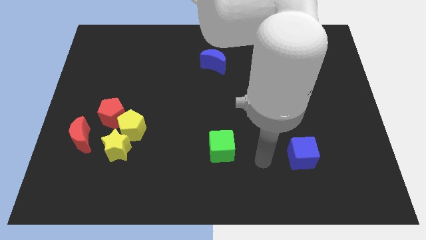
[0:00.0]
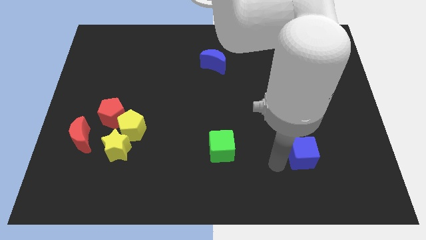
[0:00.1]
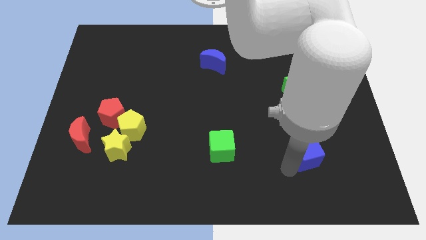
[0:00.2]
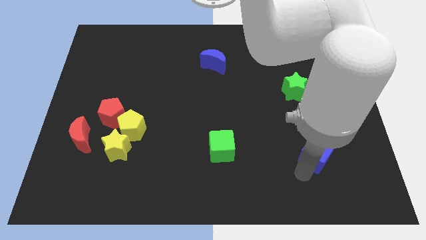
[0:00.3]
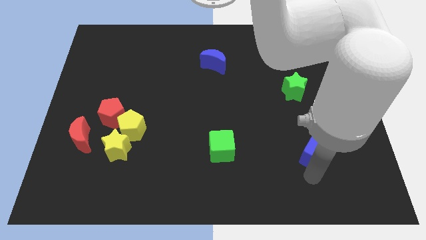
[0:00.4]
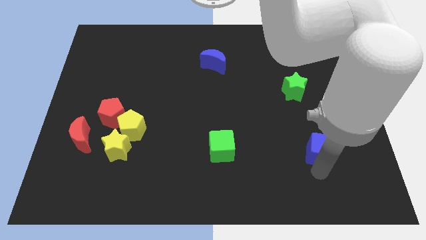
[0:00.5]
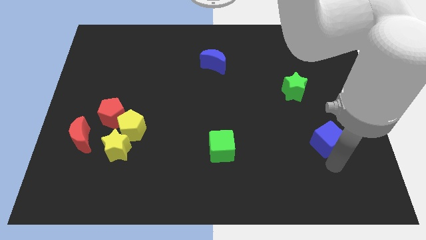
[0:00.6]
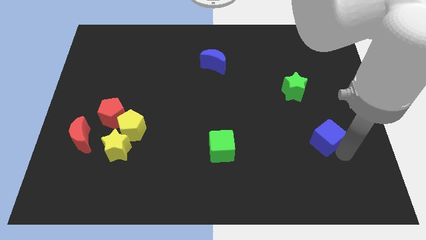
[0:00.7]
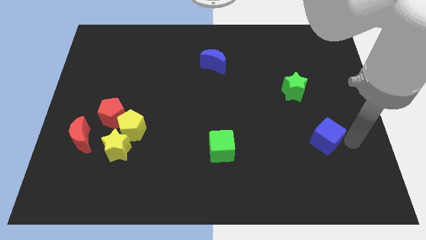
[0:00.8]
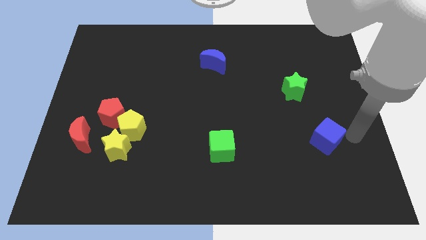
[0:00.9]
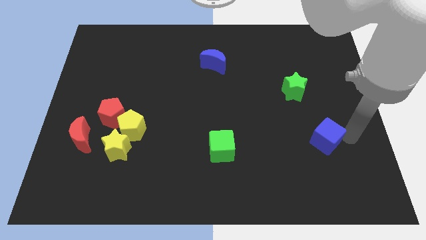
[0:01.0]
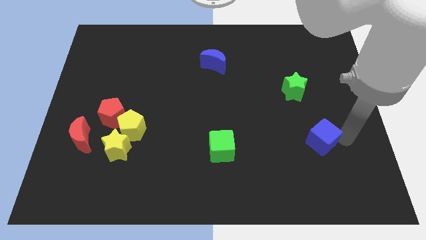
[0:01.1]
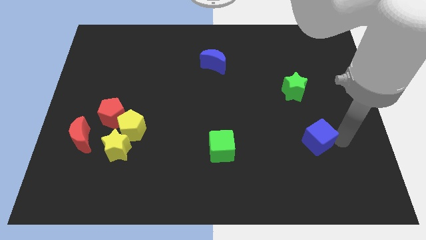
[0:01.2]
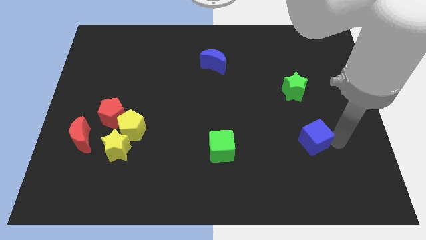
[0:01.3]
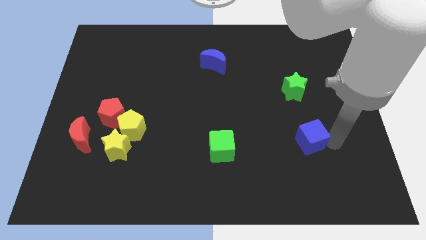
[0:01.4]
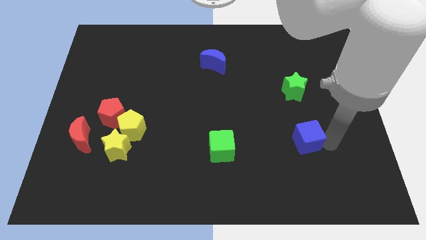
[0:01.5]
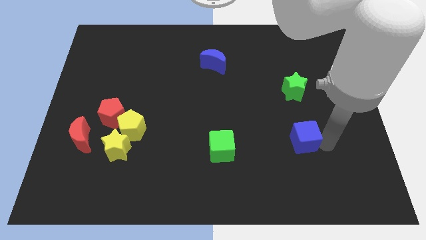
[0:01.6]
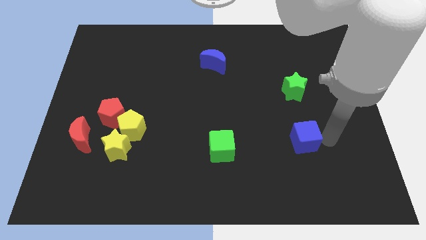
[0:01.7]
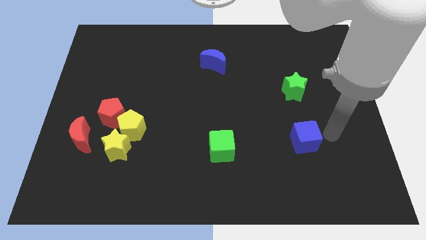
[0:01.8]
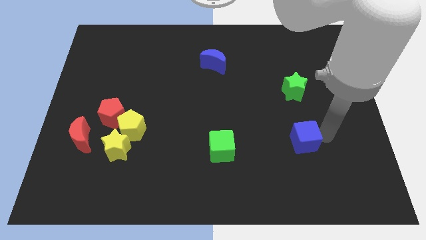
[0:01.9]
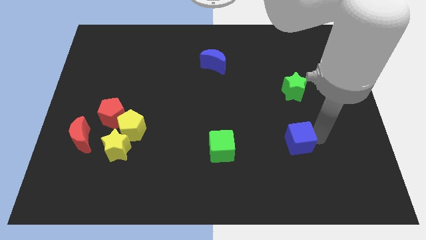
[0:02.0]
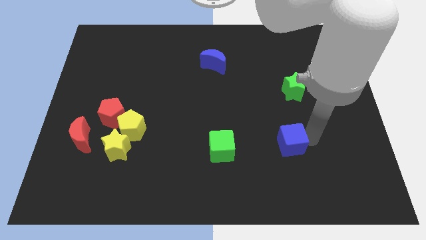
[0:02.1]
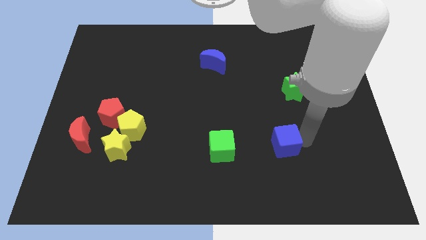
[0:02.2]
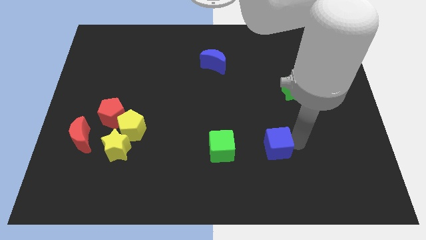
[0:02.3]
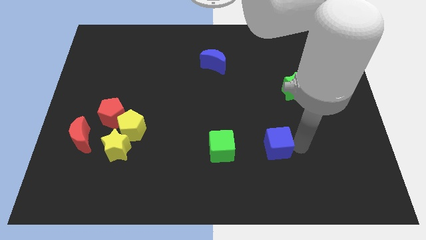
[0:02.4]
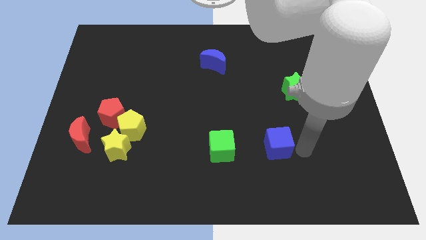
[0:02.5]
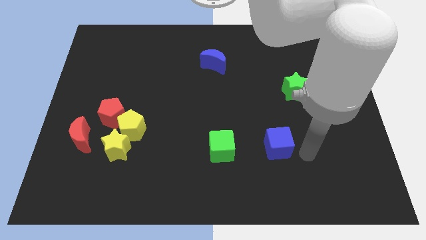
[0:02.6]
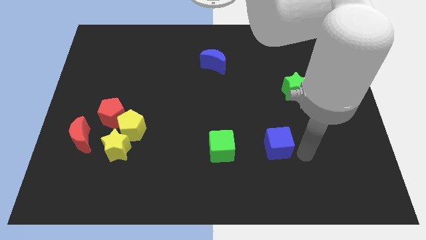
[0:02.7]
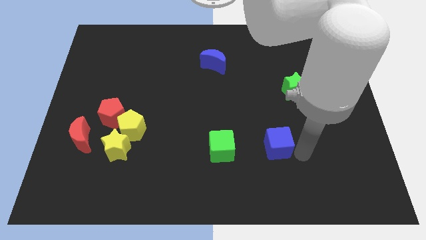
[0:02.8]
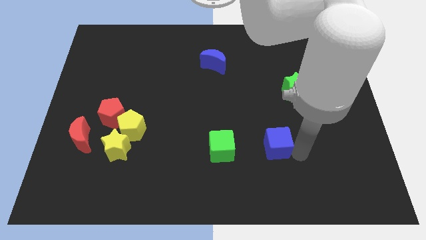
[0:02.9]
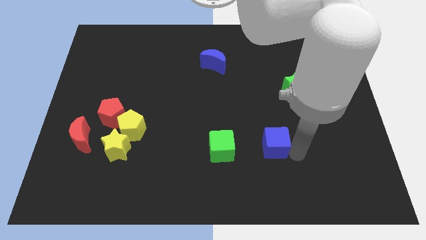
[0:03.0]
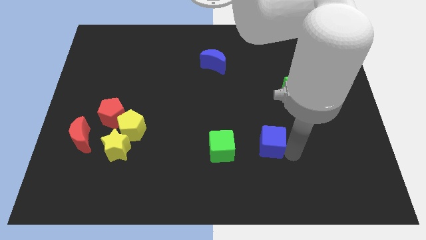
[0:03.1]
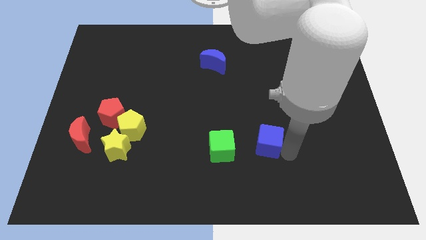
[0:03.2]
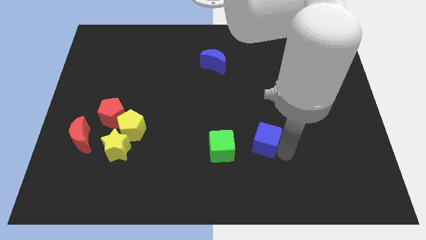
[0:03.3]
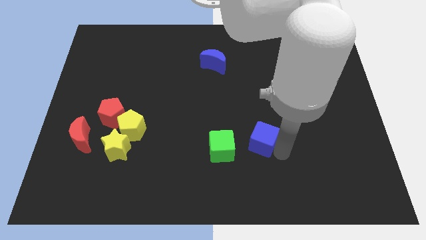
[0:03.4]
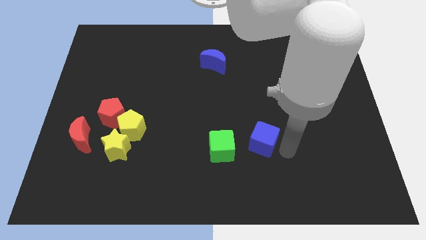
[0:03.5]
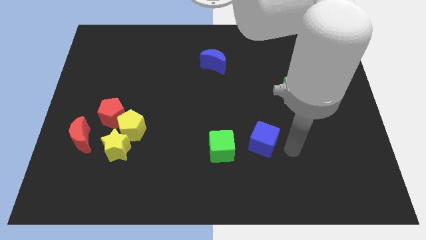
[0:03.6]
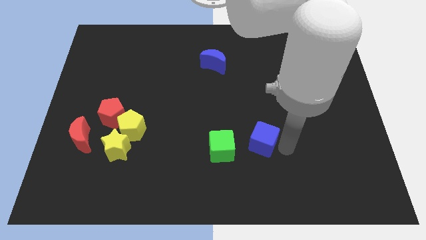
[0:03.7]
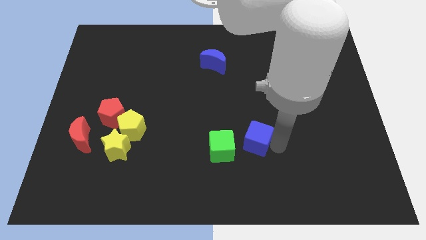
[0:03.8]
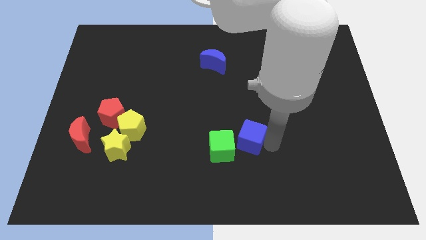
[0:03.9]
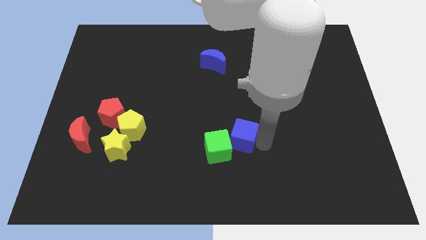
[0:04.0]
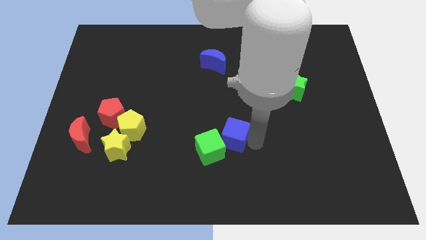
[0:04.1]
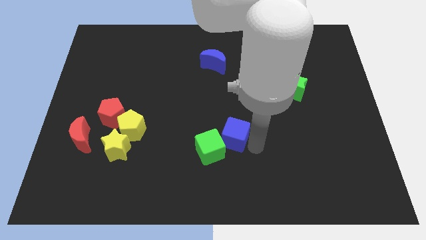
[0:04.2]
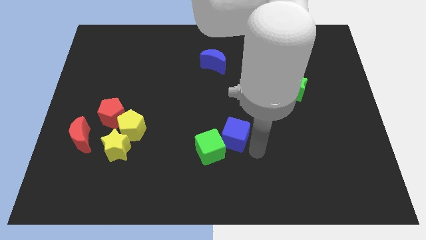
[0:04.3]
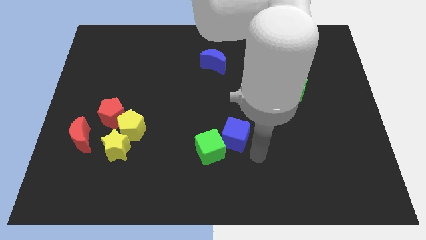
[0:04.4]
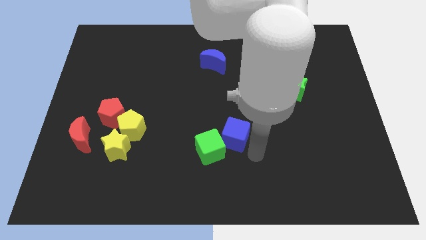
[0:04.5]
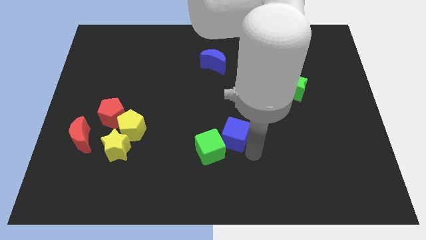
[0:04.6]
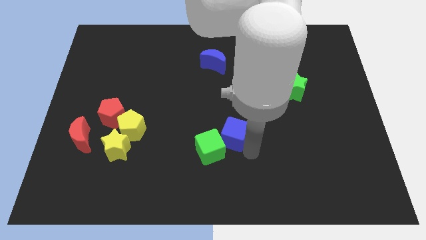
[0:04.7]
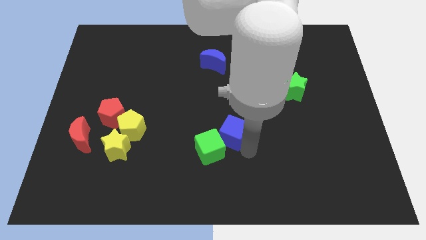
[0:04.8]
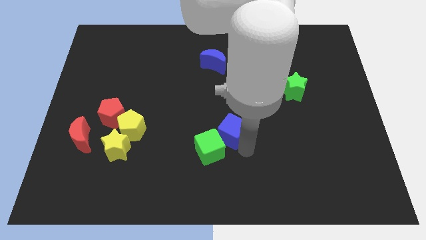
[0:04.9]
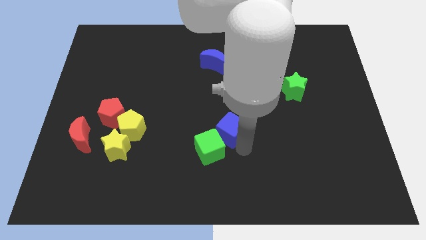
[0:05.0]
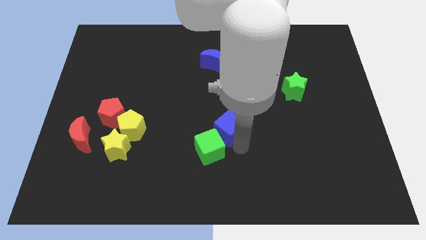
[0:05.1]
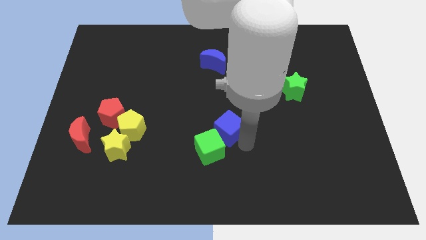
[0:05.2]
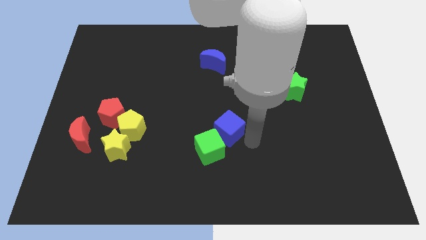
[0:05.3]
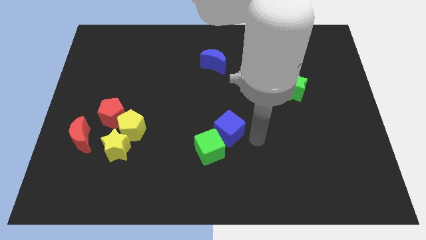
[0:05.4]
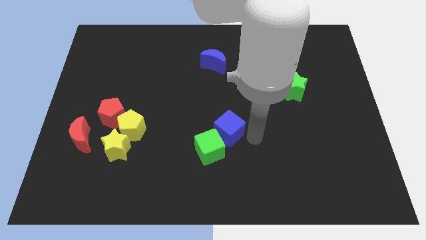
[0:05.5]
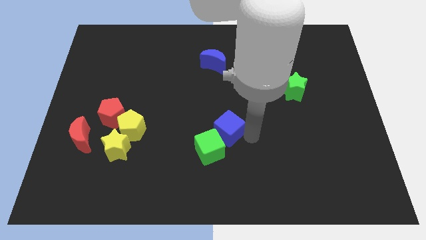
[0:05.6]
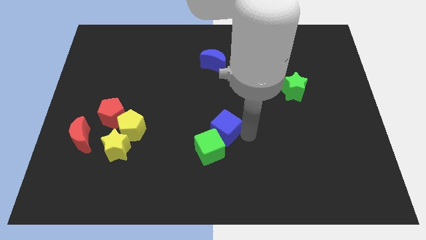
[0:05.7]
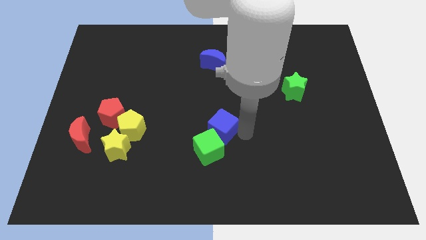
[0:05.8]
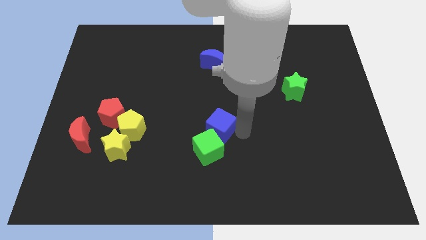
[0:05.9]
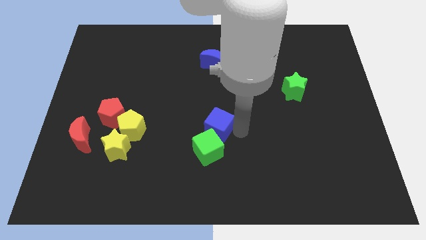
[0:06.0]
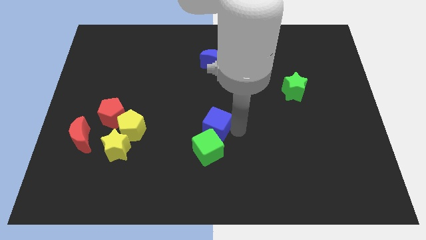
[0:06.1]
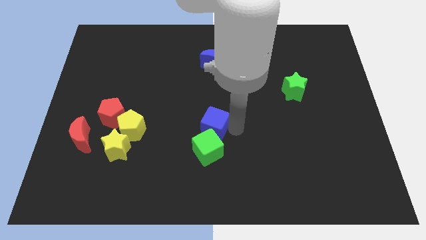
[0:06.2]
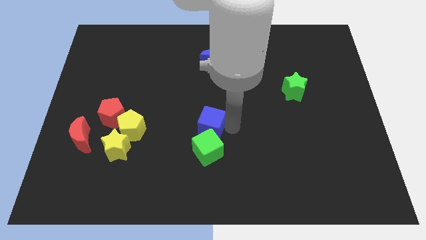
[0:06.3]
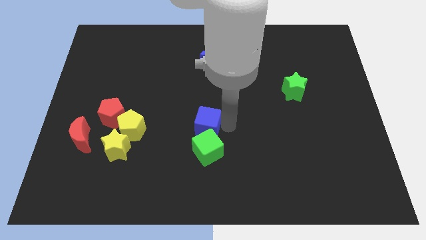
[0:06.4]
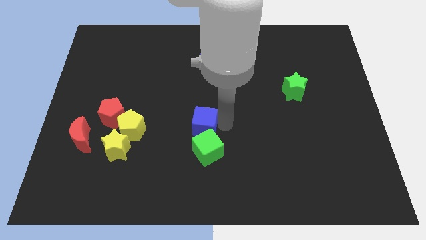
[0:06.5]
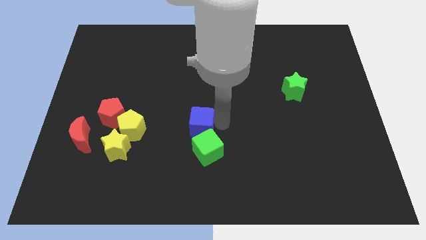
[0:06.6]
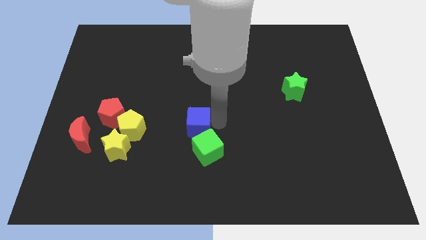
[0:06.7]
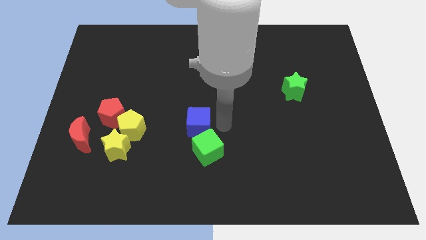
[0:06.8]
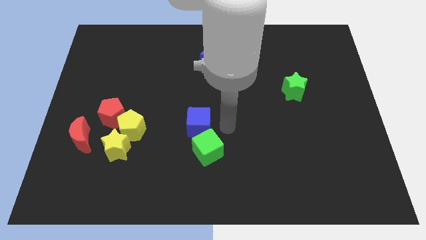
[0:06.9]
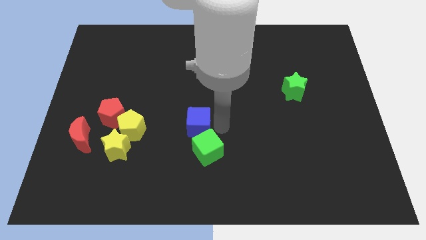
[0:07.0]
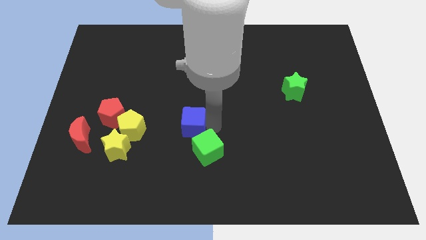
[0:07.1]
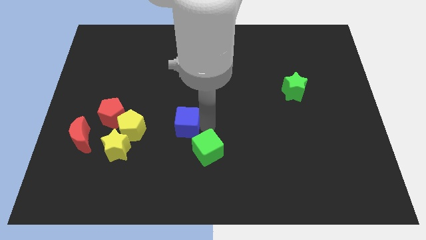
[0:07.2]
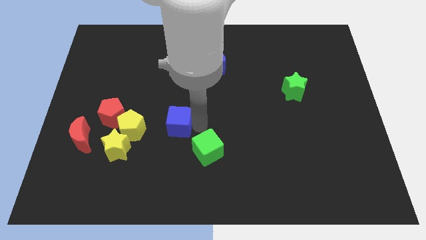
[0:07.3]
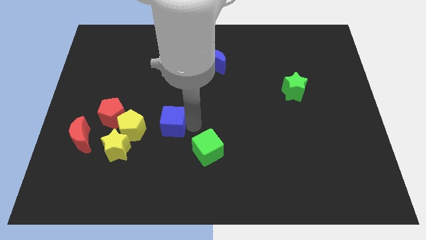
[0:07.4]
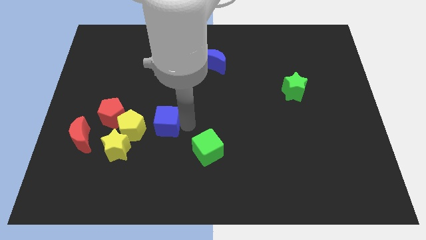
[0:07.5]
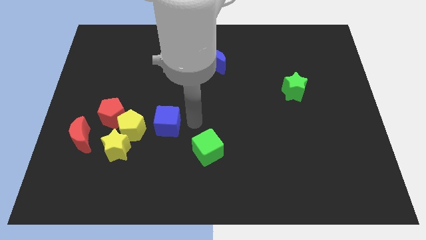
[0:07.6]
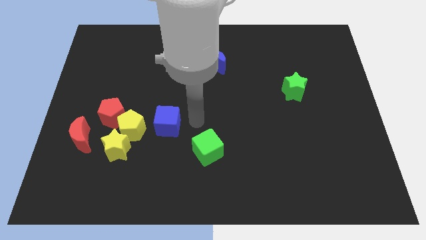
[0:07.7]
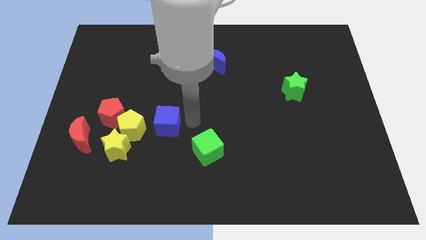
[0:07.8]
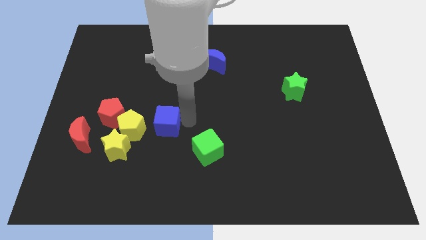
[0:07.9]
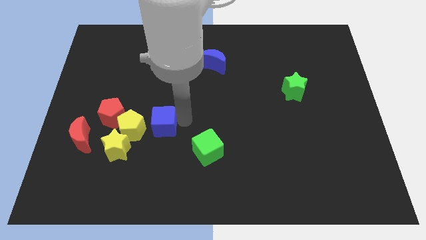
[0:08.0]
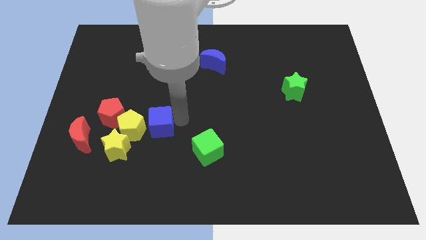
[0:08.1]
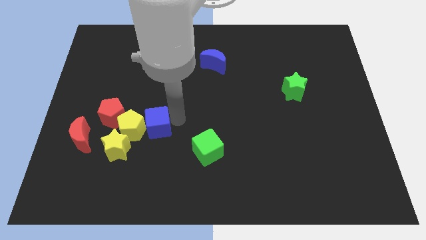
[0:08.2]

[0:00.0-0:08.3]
slide the blue cube towards the yellow pentagon
